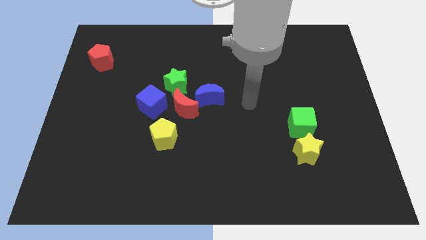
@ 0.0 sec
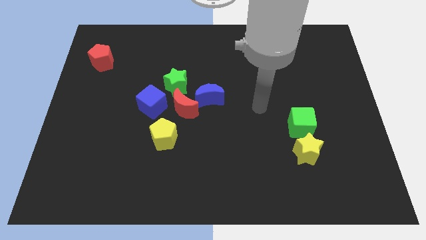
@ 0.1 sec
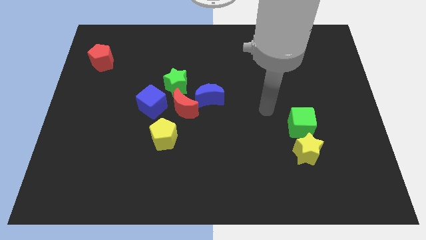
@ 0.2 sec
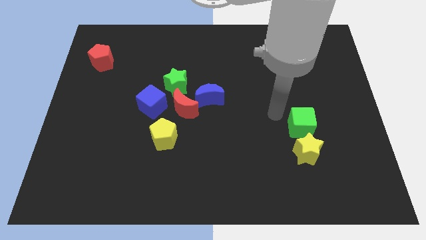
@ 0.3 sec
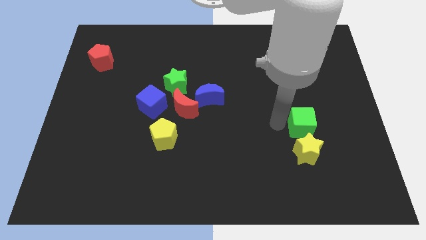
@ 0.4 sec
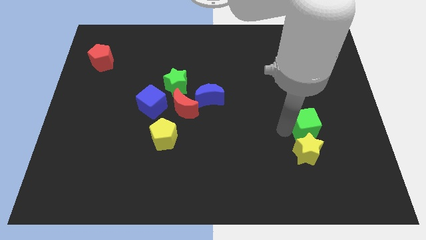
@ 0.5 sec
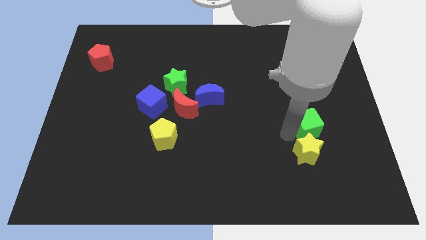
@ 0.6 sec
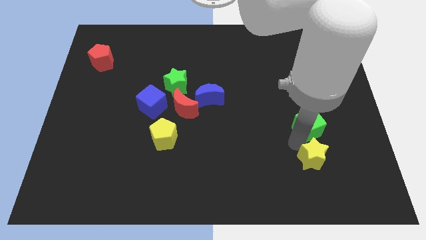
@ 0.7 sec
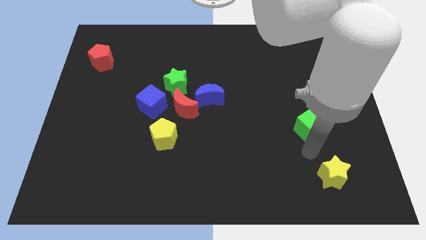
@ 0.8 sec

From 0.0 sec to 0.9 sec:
move the green cube away from the yellow star

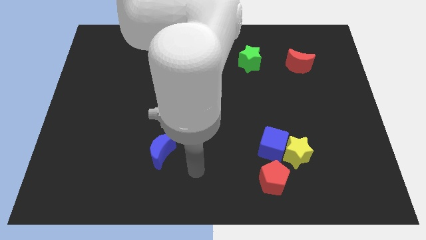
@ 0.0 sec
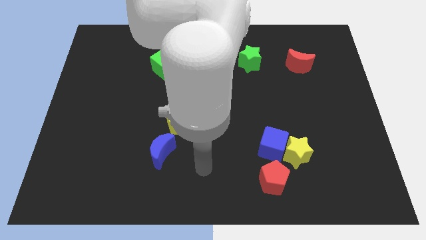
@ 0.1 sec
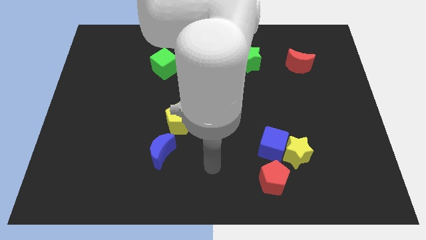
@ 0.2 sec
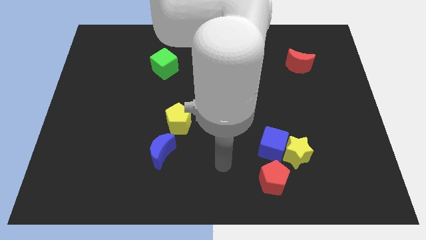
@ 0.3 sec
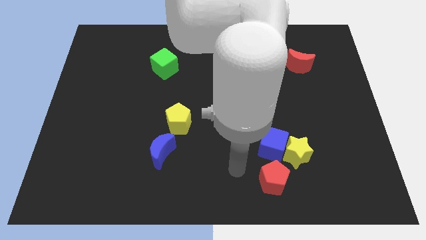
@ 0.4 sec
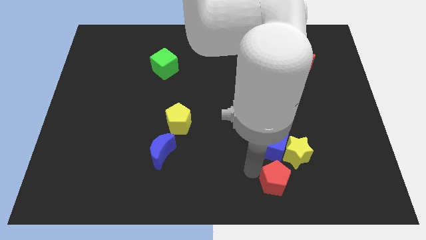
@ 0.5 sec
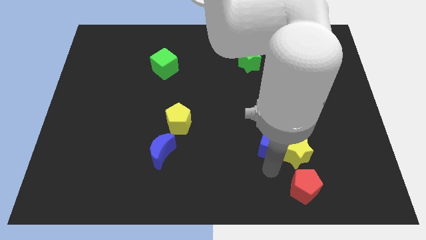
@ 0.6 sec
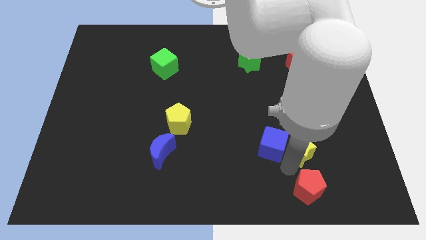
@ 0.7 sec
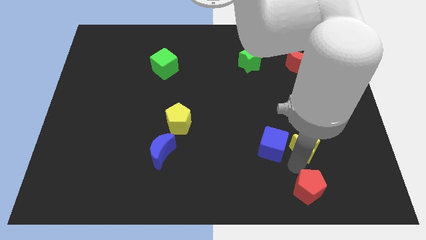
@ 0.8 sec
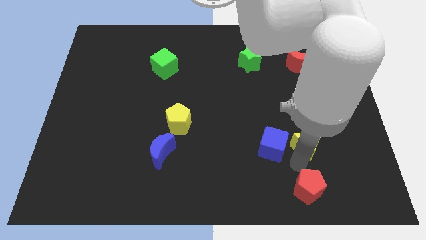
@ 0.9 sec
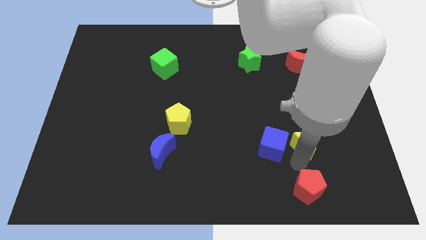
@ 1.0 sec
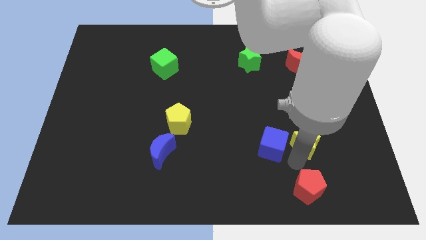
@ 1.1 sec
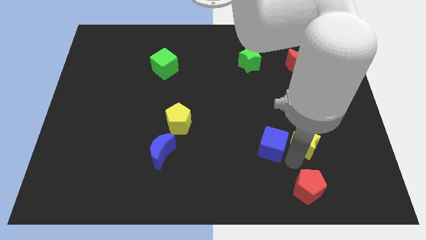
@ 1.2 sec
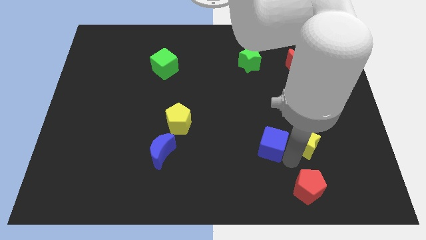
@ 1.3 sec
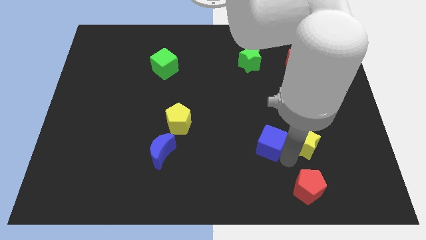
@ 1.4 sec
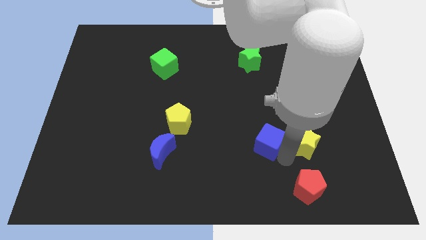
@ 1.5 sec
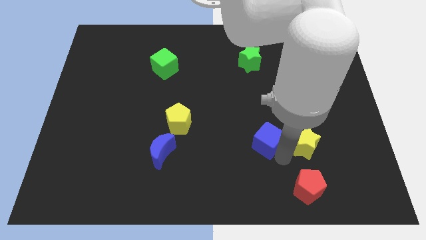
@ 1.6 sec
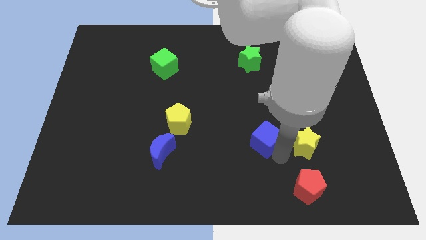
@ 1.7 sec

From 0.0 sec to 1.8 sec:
move the blue cube away from the yellow star and red pentagon

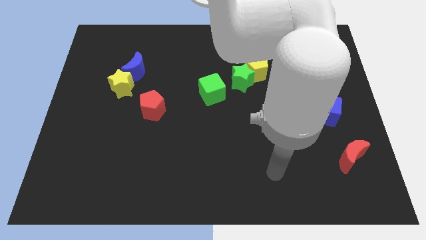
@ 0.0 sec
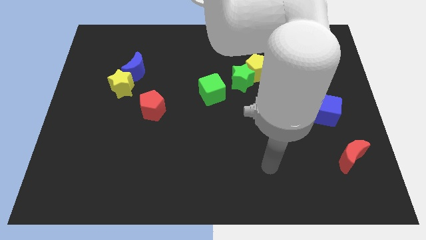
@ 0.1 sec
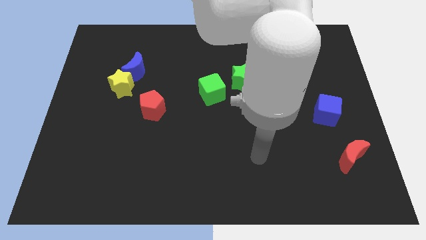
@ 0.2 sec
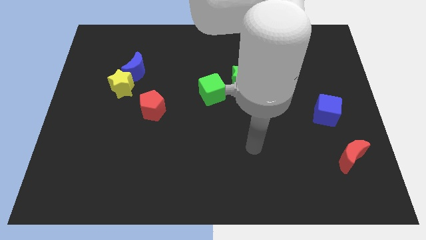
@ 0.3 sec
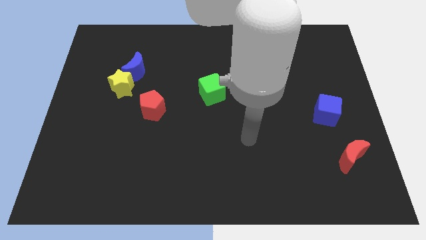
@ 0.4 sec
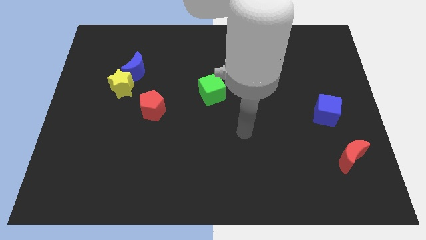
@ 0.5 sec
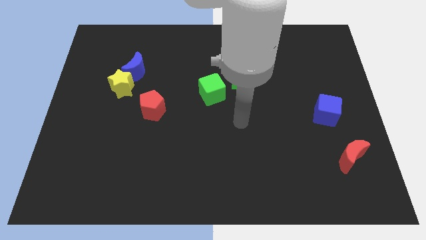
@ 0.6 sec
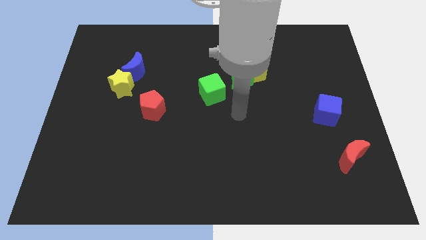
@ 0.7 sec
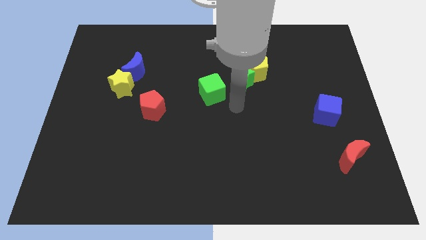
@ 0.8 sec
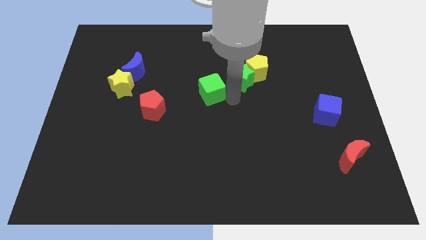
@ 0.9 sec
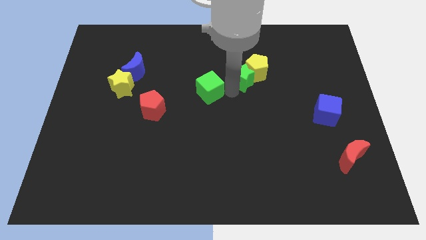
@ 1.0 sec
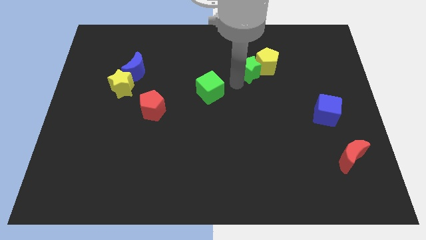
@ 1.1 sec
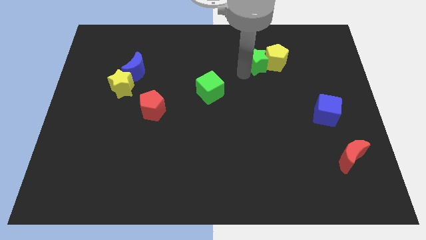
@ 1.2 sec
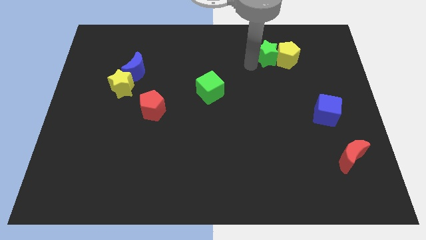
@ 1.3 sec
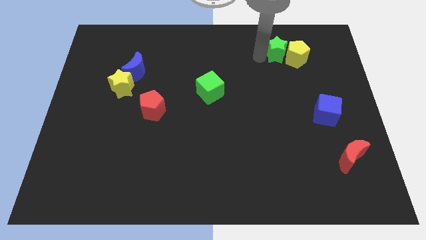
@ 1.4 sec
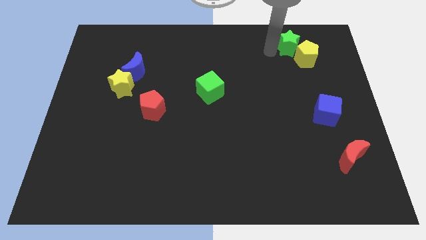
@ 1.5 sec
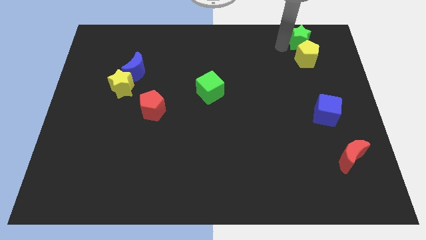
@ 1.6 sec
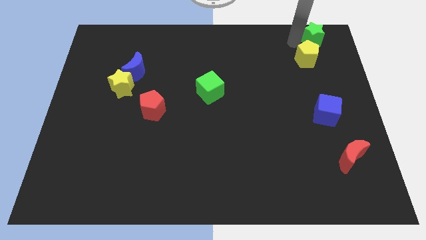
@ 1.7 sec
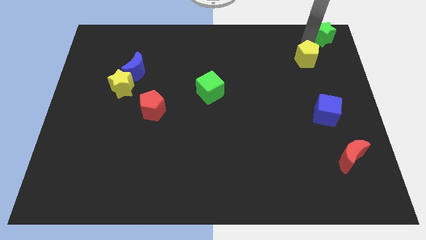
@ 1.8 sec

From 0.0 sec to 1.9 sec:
pull the yellow pentagon apart from the green star

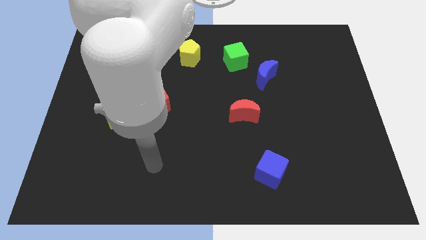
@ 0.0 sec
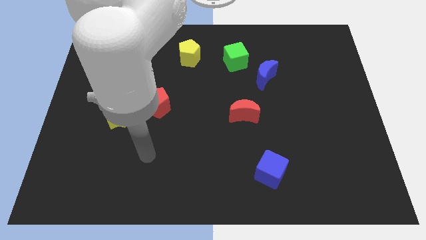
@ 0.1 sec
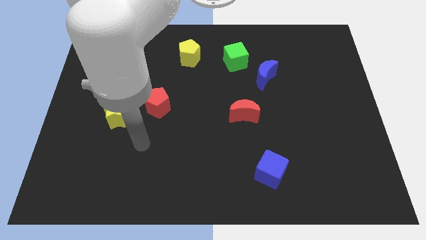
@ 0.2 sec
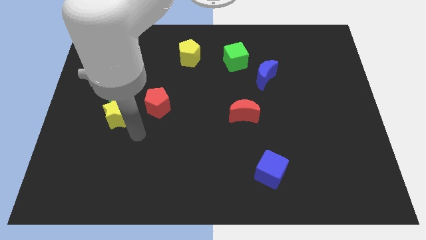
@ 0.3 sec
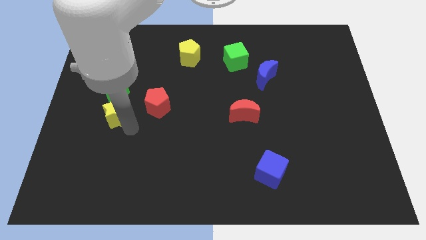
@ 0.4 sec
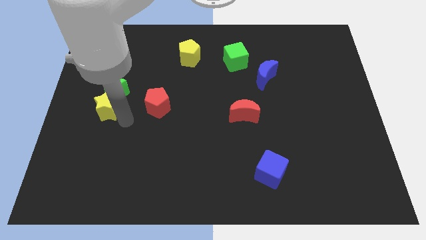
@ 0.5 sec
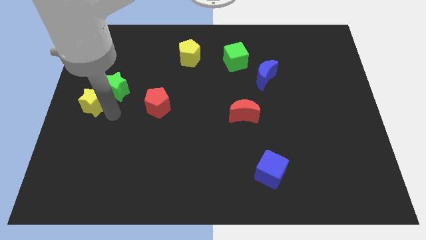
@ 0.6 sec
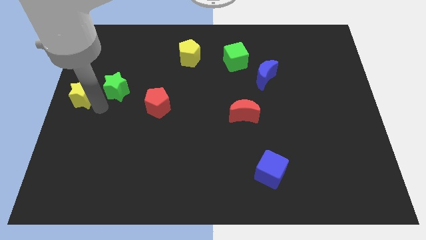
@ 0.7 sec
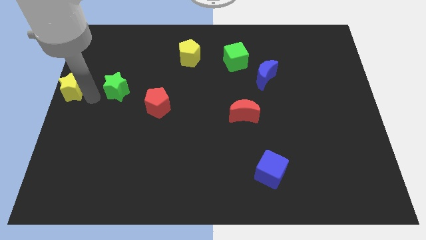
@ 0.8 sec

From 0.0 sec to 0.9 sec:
move the green star away from the yellow star

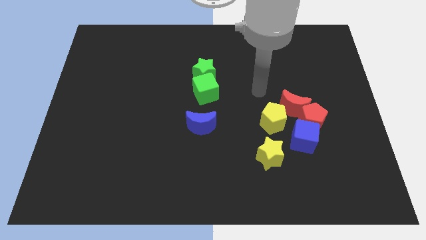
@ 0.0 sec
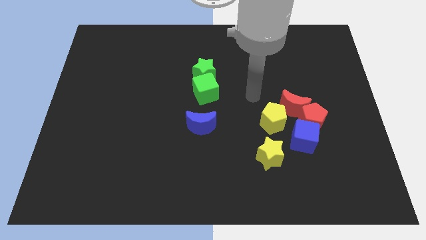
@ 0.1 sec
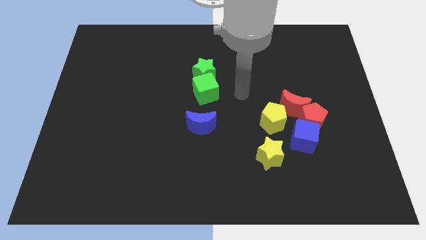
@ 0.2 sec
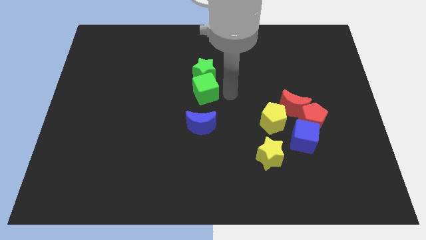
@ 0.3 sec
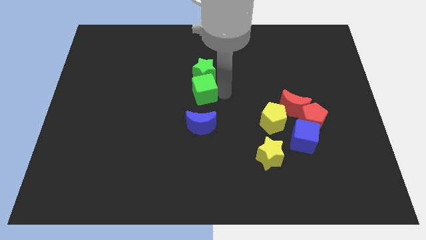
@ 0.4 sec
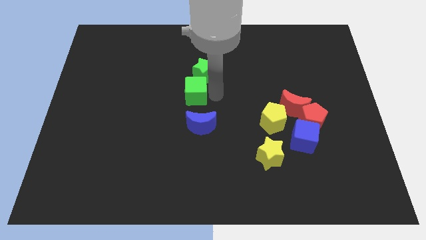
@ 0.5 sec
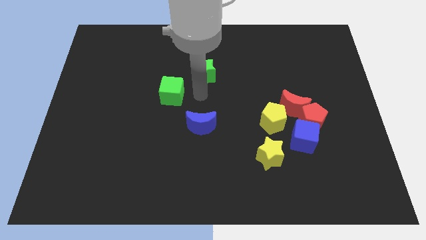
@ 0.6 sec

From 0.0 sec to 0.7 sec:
separate the green star from the green cube

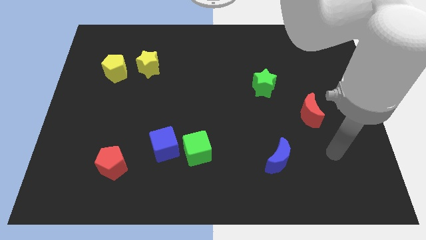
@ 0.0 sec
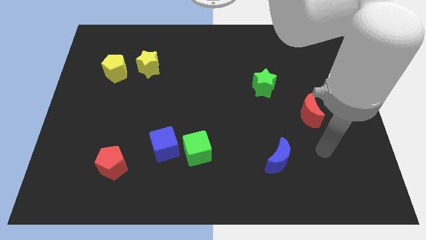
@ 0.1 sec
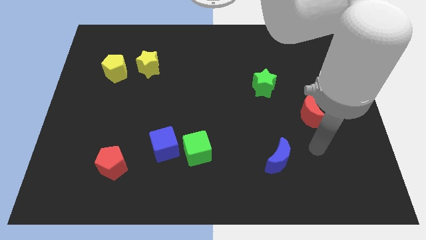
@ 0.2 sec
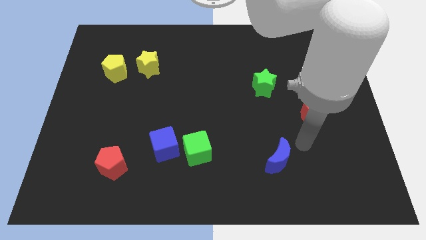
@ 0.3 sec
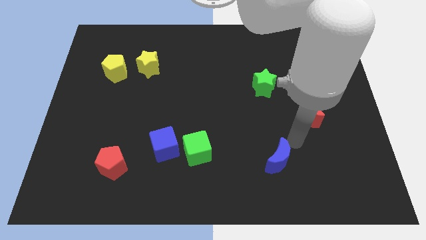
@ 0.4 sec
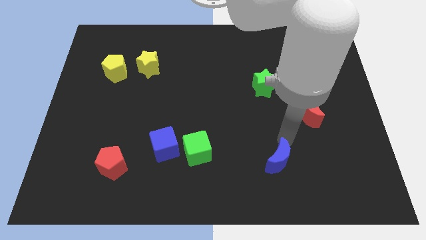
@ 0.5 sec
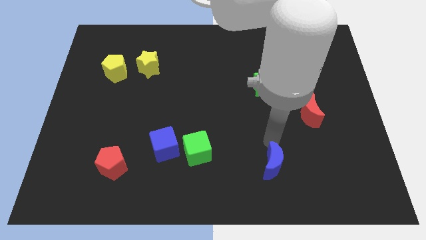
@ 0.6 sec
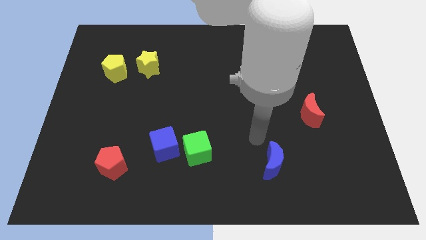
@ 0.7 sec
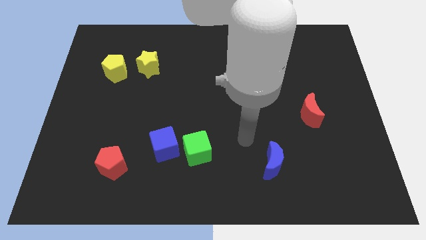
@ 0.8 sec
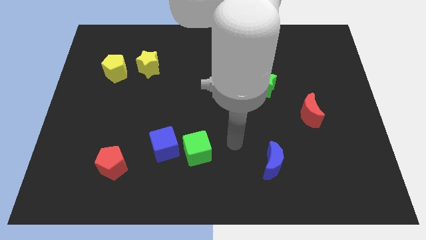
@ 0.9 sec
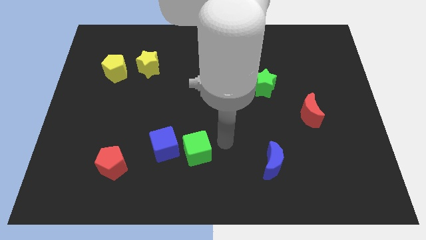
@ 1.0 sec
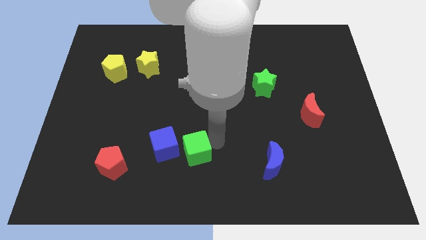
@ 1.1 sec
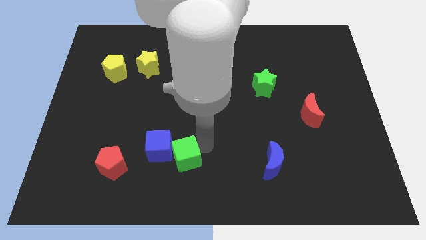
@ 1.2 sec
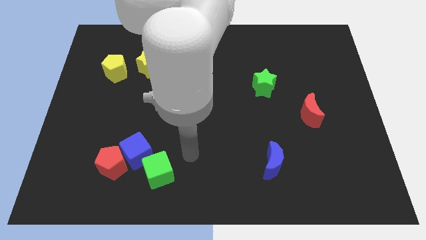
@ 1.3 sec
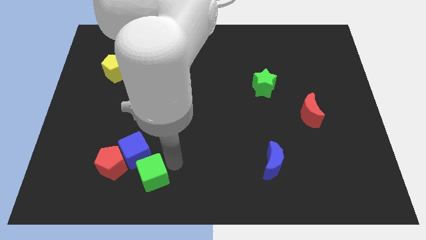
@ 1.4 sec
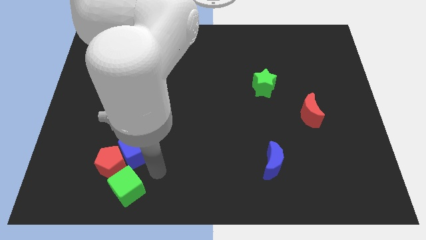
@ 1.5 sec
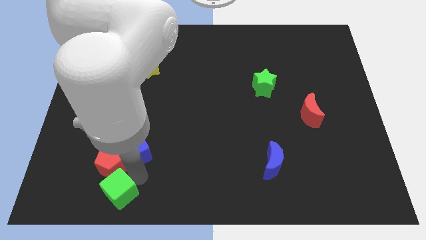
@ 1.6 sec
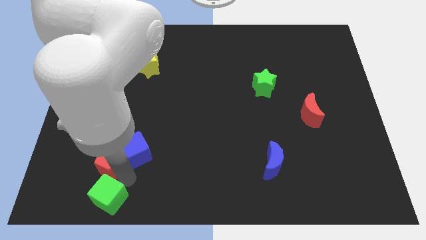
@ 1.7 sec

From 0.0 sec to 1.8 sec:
move the blue cube away from the green cube

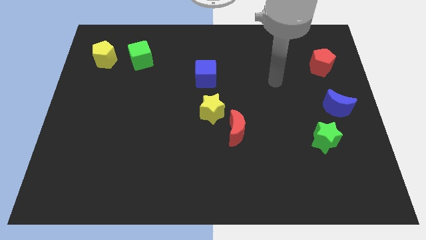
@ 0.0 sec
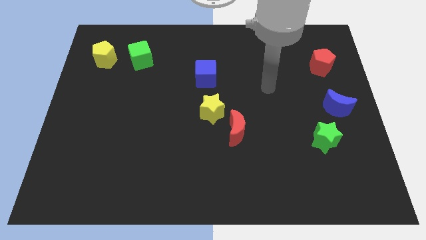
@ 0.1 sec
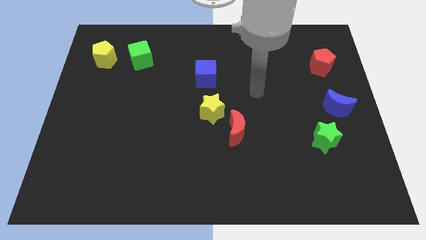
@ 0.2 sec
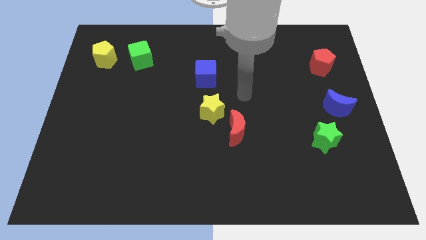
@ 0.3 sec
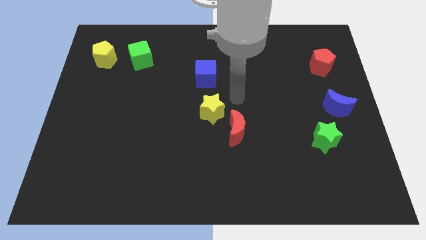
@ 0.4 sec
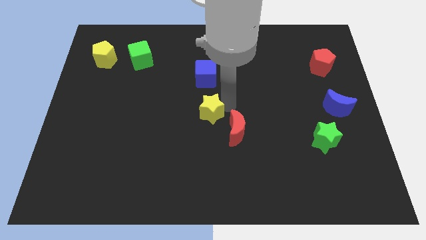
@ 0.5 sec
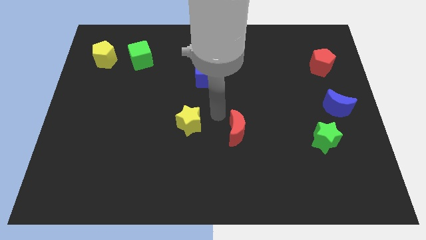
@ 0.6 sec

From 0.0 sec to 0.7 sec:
move the red moon away from the yellow star

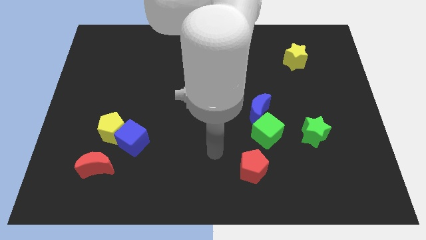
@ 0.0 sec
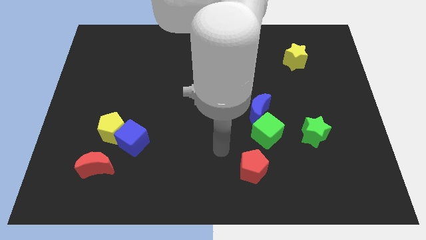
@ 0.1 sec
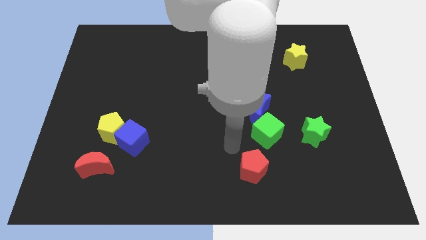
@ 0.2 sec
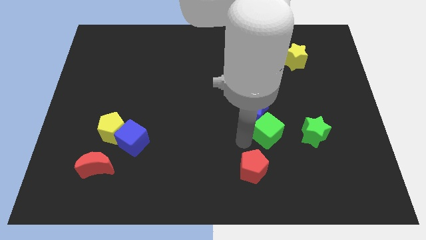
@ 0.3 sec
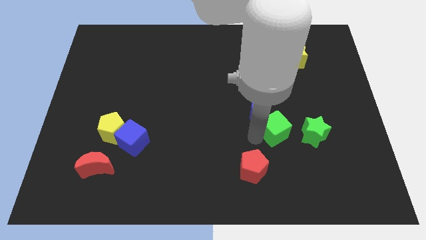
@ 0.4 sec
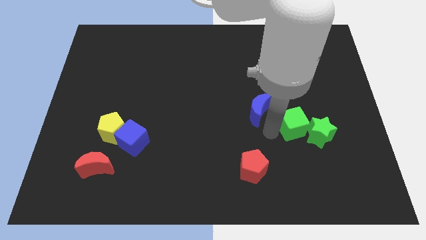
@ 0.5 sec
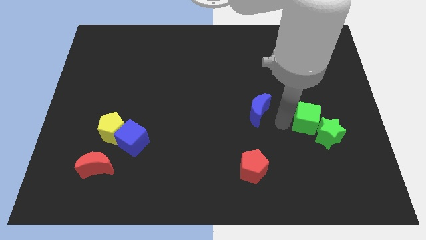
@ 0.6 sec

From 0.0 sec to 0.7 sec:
separate the blue moon from the green cube
